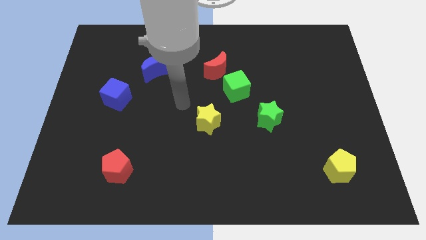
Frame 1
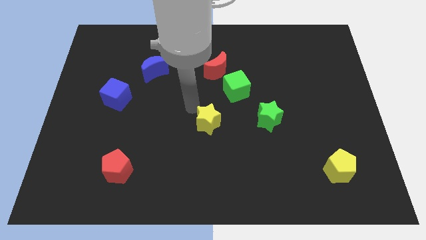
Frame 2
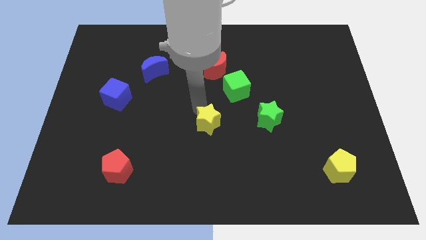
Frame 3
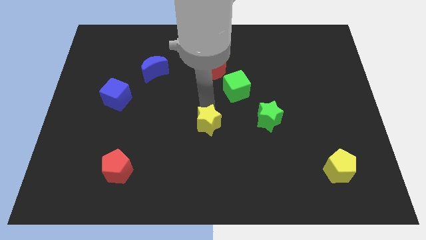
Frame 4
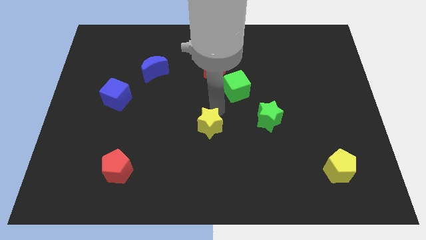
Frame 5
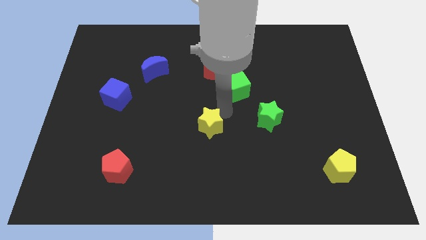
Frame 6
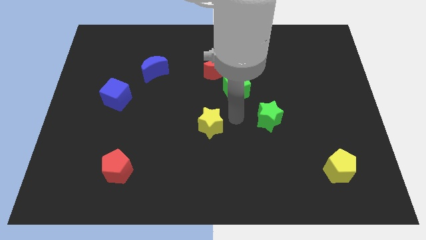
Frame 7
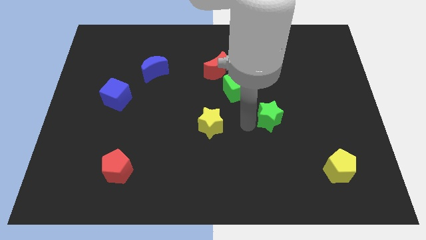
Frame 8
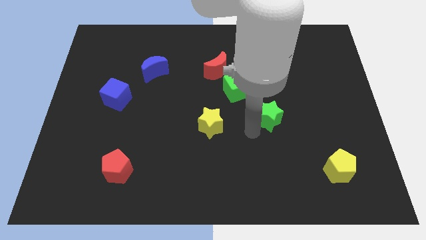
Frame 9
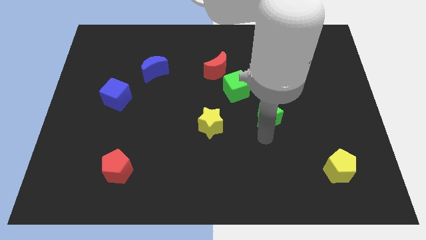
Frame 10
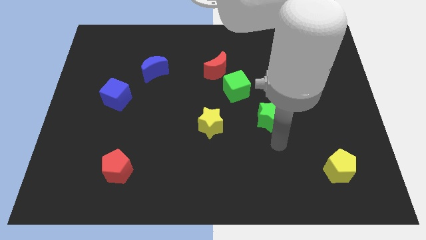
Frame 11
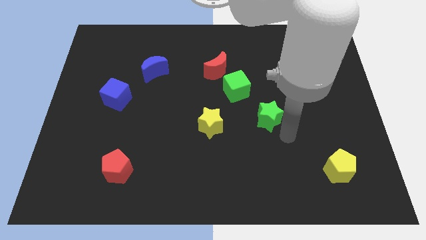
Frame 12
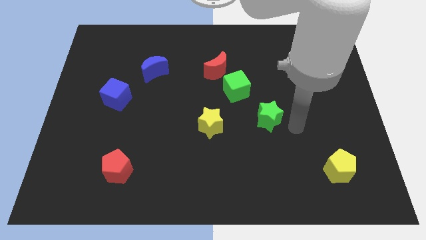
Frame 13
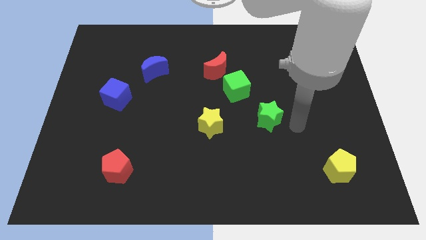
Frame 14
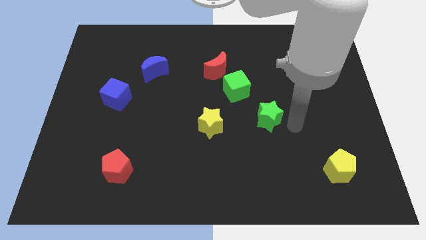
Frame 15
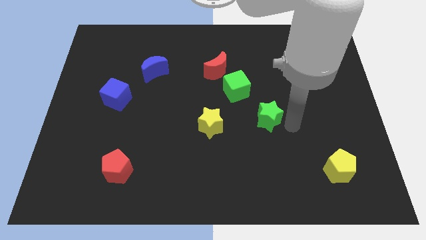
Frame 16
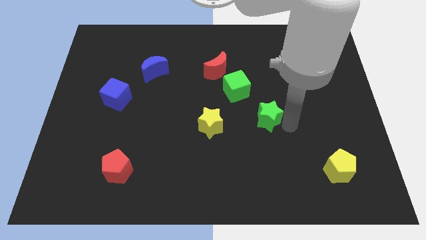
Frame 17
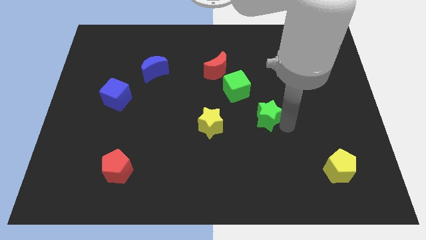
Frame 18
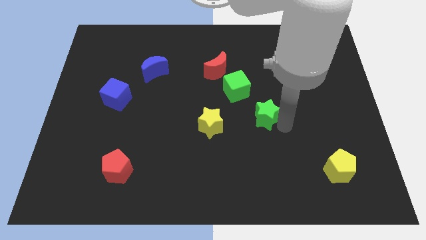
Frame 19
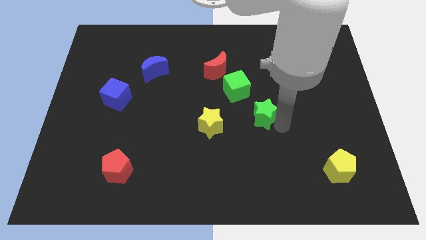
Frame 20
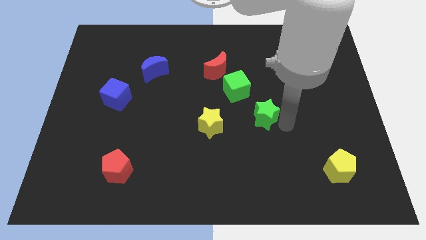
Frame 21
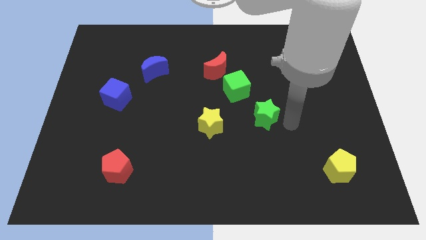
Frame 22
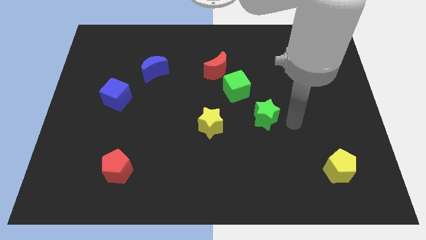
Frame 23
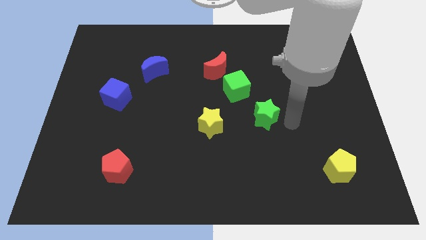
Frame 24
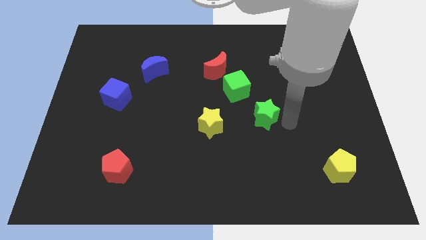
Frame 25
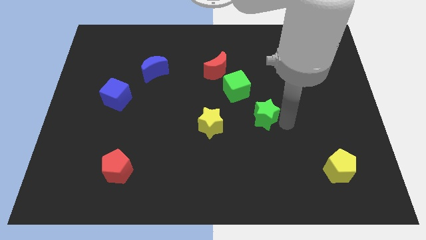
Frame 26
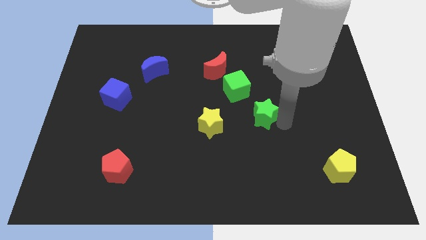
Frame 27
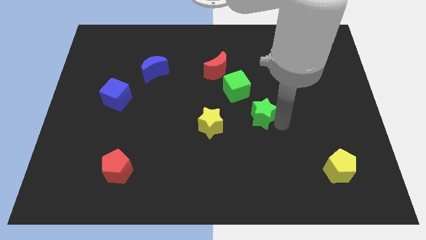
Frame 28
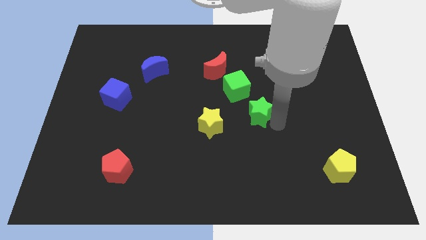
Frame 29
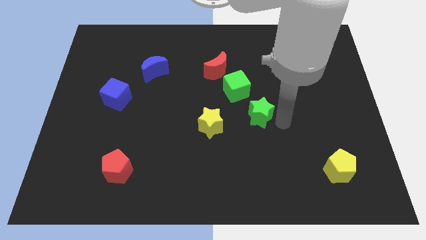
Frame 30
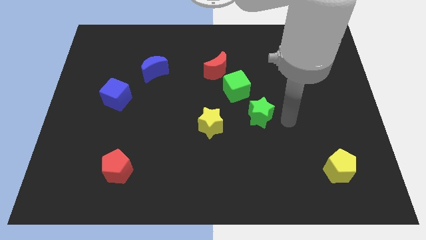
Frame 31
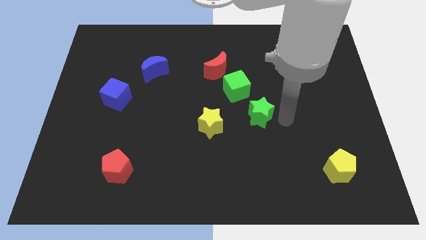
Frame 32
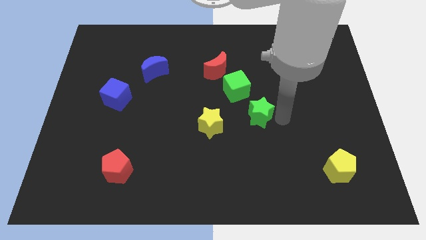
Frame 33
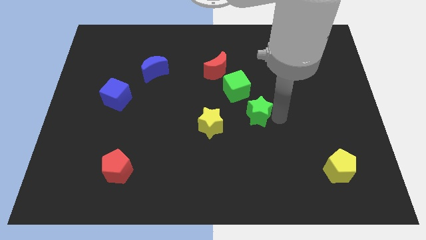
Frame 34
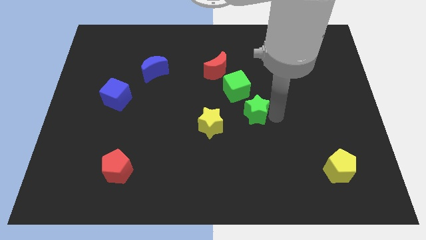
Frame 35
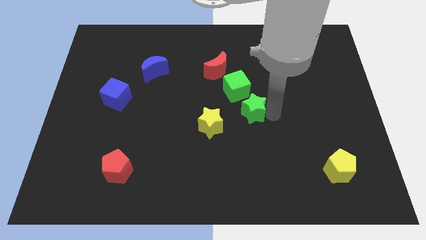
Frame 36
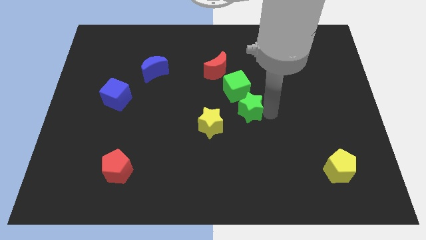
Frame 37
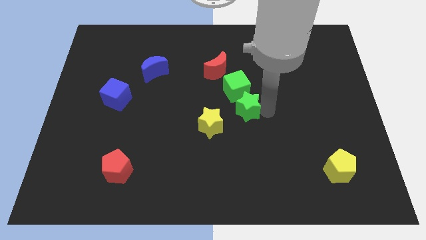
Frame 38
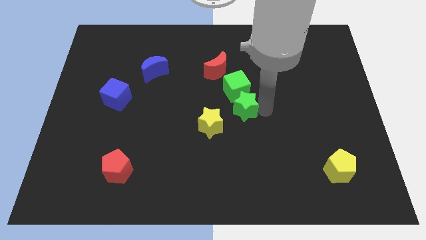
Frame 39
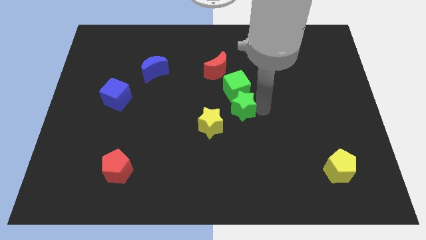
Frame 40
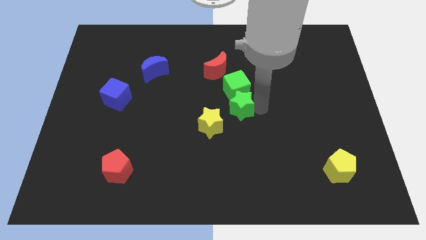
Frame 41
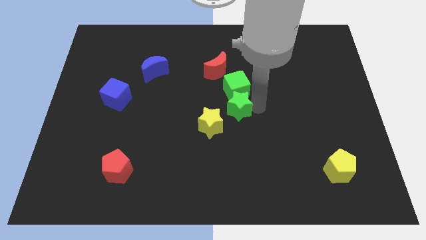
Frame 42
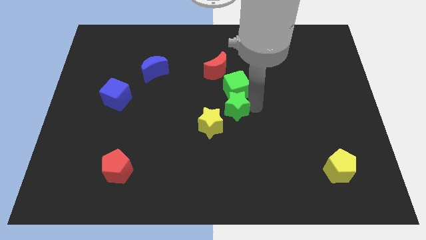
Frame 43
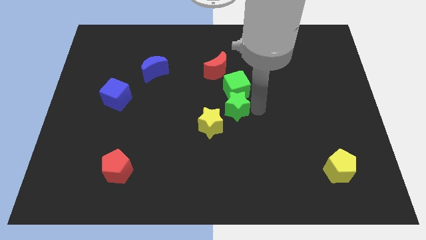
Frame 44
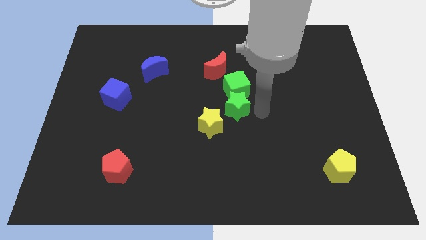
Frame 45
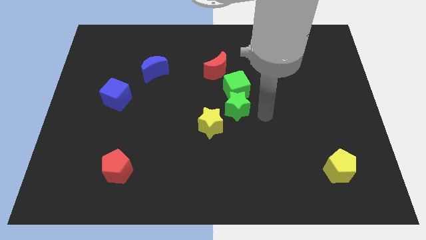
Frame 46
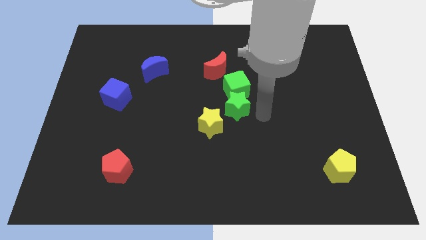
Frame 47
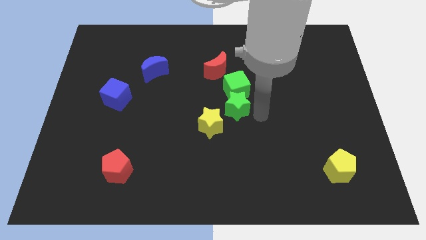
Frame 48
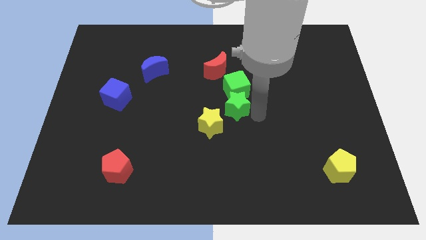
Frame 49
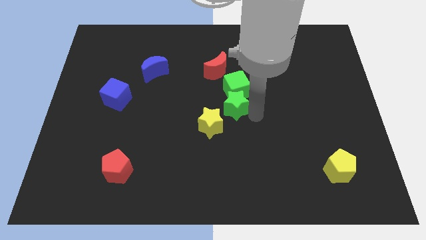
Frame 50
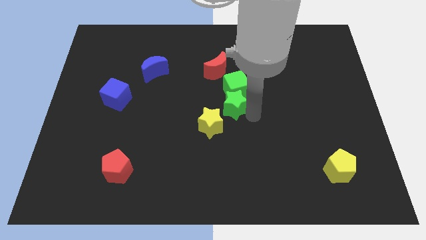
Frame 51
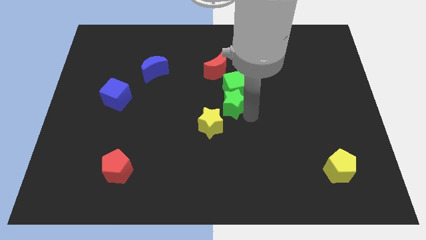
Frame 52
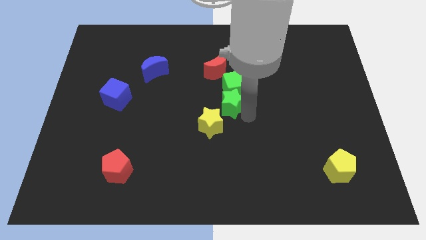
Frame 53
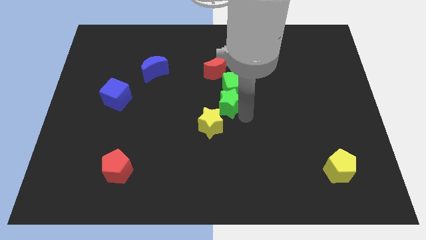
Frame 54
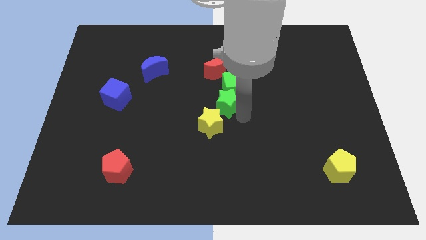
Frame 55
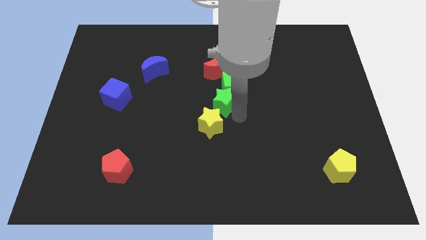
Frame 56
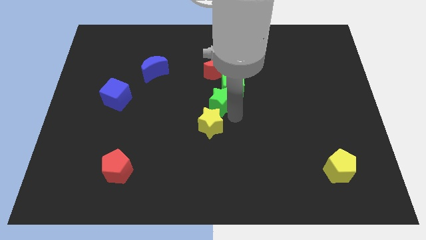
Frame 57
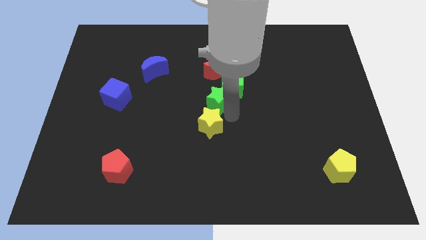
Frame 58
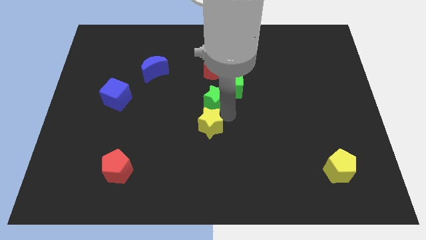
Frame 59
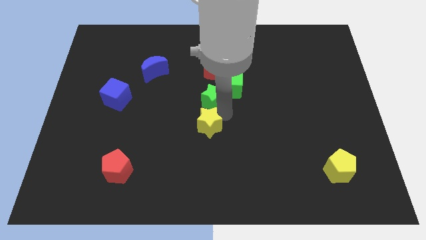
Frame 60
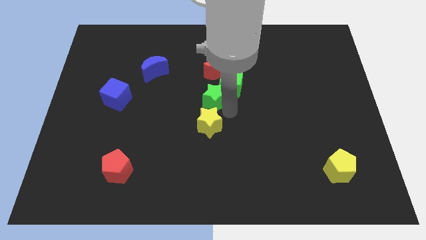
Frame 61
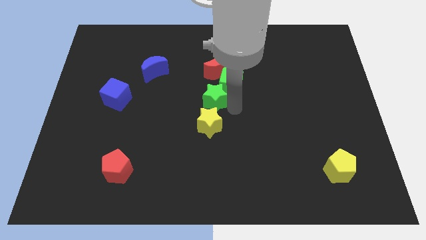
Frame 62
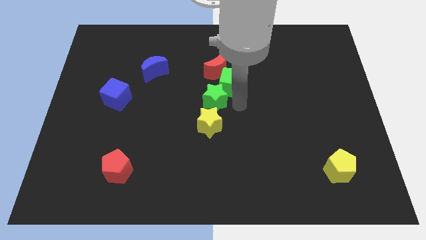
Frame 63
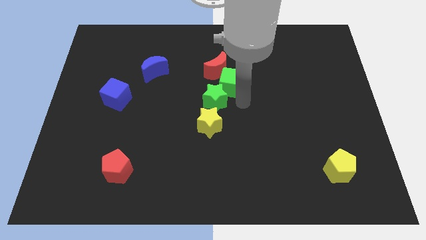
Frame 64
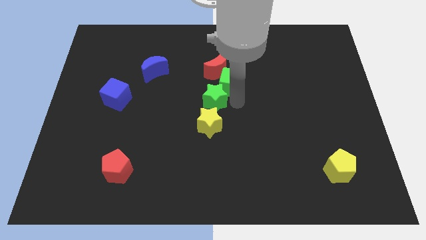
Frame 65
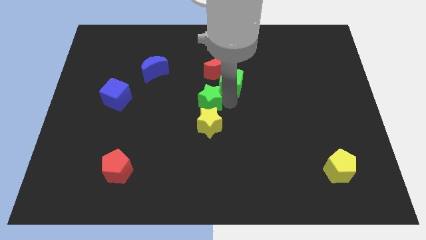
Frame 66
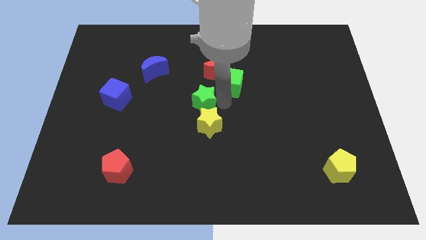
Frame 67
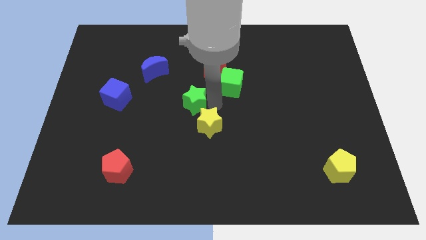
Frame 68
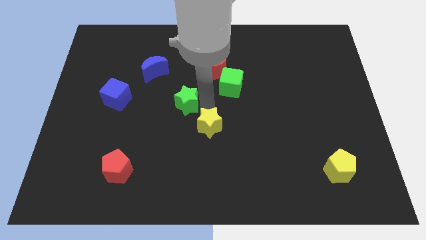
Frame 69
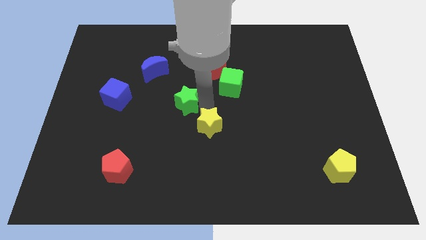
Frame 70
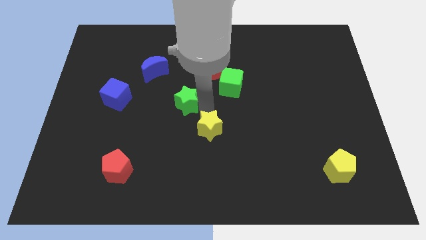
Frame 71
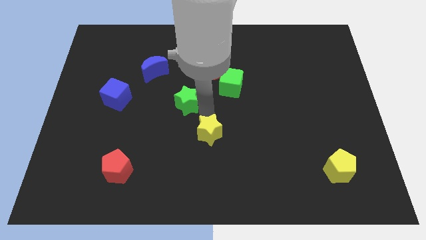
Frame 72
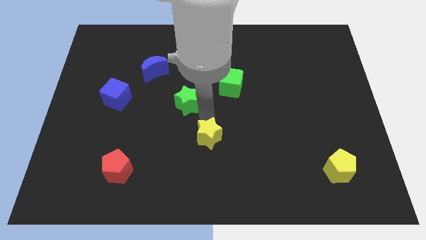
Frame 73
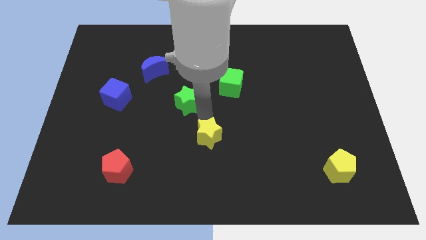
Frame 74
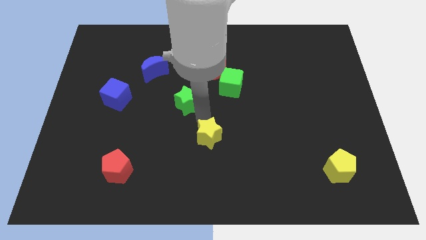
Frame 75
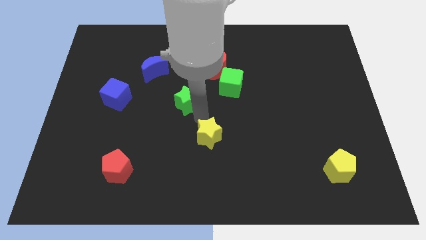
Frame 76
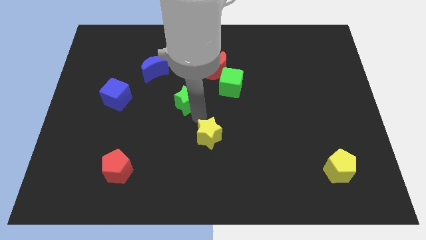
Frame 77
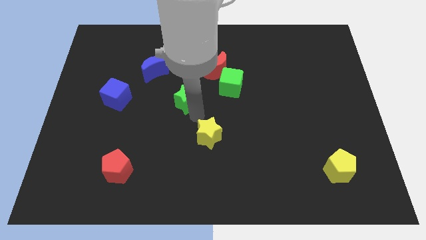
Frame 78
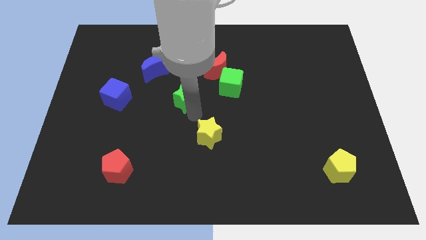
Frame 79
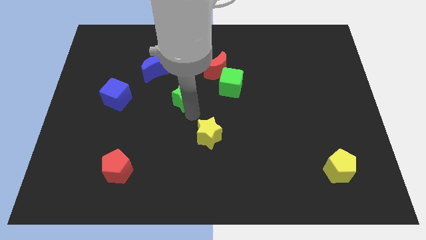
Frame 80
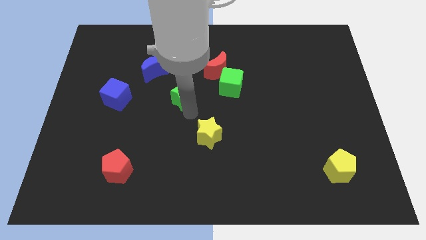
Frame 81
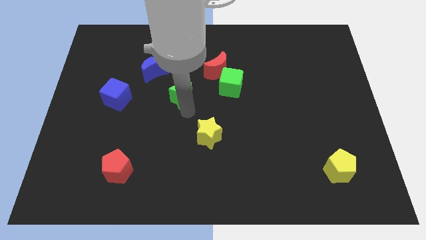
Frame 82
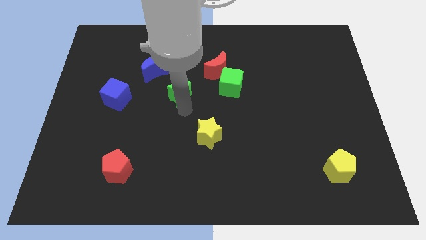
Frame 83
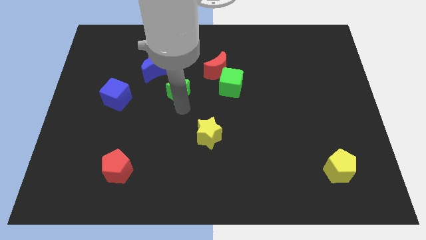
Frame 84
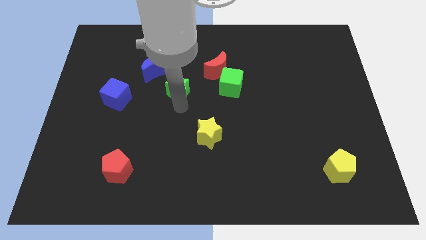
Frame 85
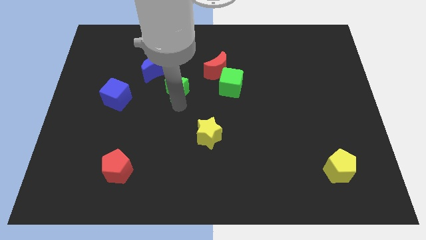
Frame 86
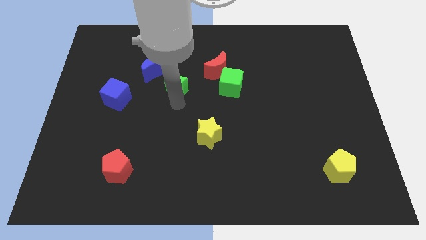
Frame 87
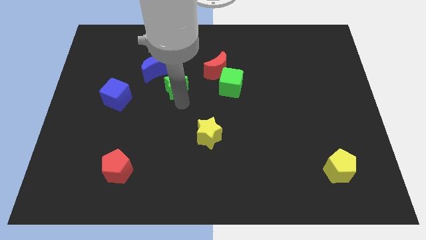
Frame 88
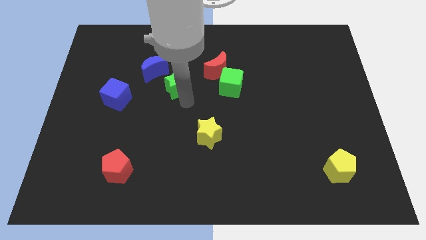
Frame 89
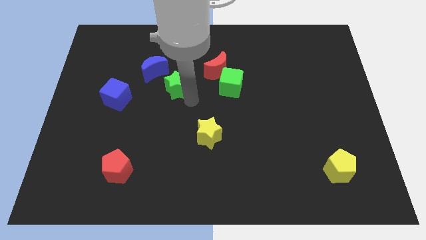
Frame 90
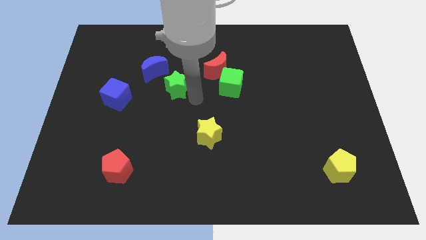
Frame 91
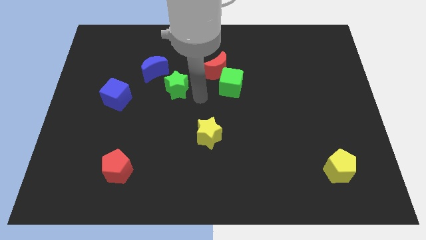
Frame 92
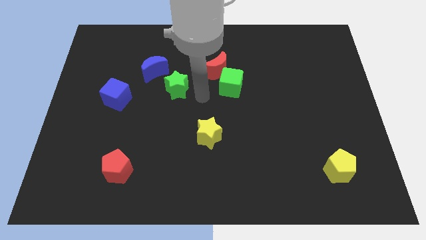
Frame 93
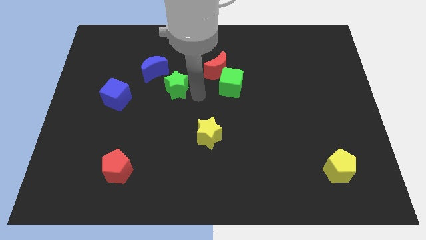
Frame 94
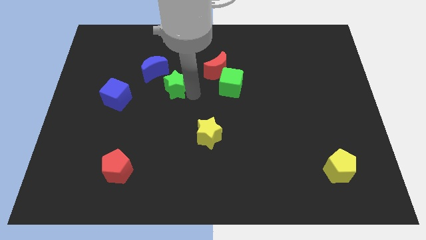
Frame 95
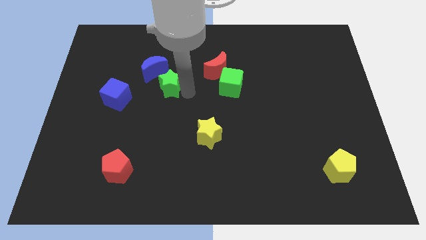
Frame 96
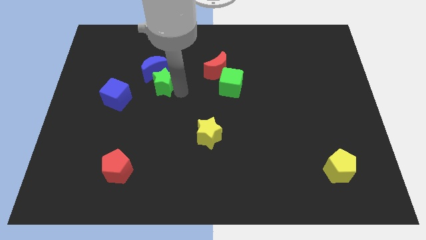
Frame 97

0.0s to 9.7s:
slide the green star to the blue moon
